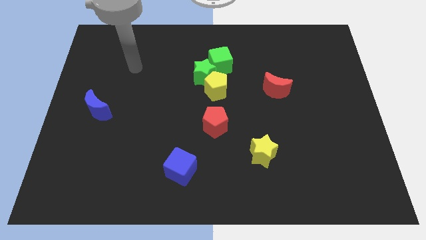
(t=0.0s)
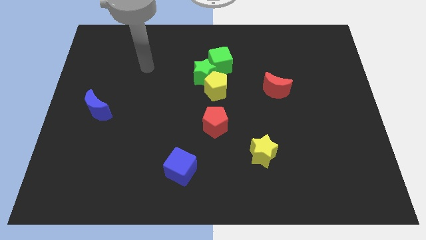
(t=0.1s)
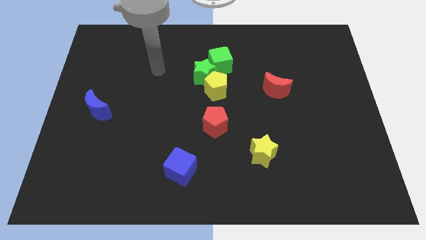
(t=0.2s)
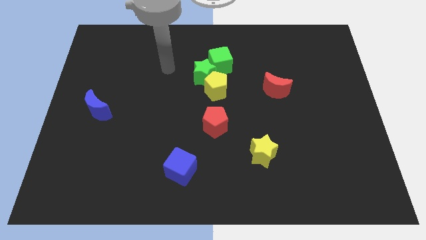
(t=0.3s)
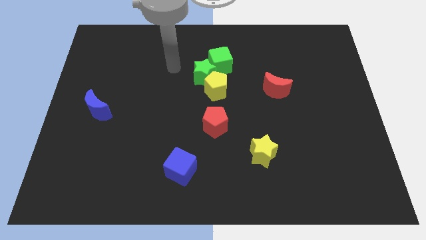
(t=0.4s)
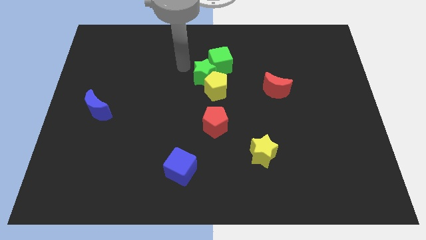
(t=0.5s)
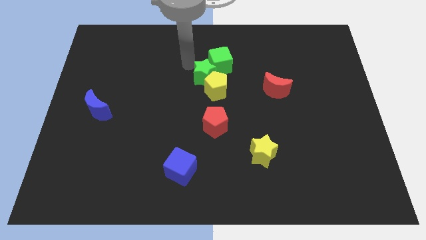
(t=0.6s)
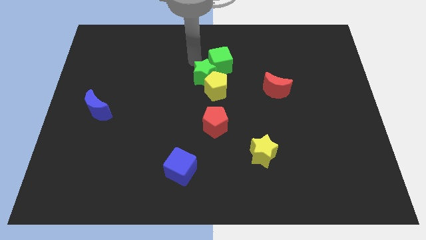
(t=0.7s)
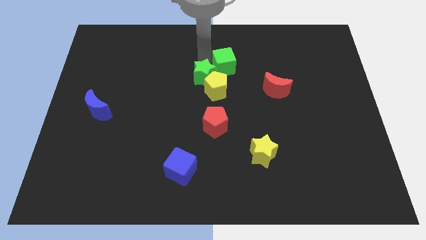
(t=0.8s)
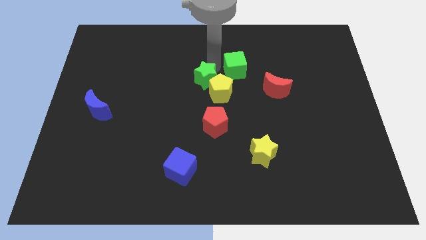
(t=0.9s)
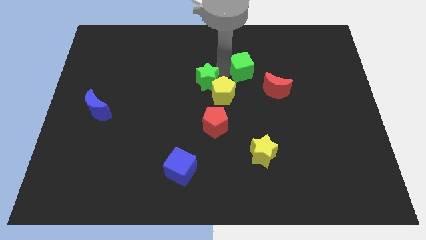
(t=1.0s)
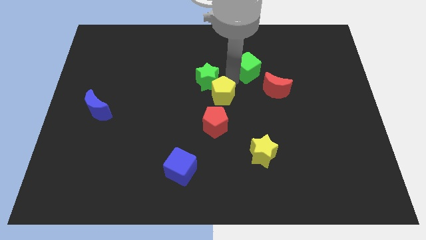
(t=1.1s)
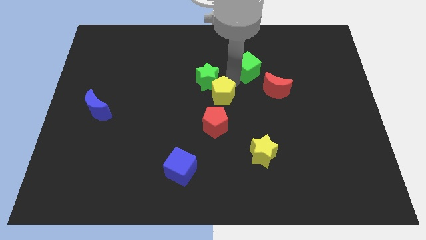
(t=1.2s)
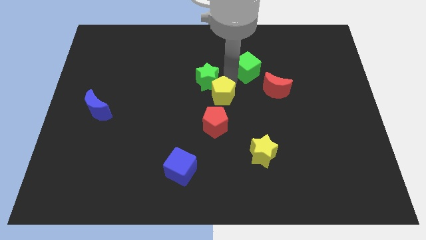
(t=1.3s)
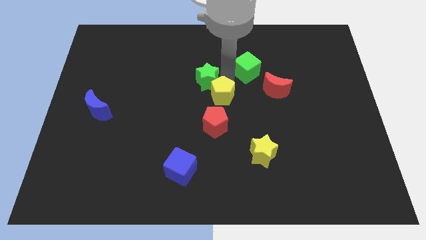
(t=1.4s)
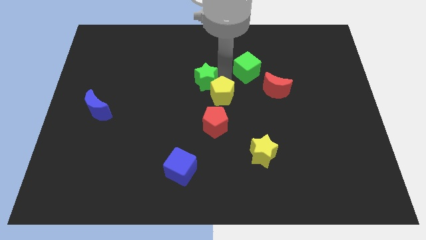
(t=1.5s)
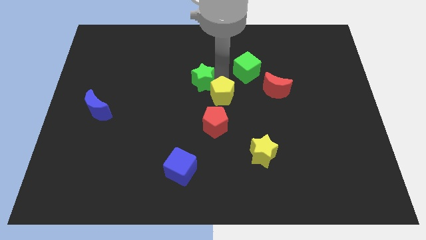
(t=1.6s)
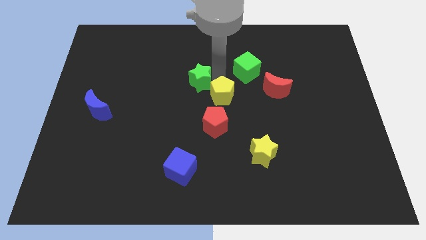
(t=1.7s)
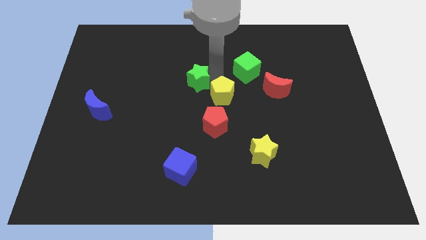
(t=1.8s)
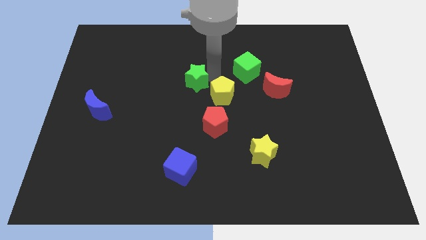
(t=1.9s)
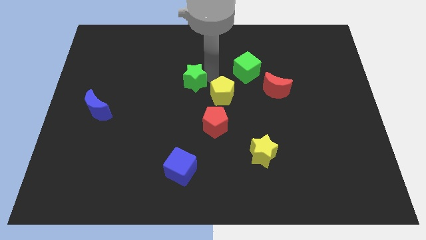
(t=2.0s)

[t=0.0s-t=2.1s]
pull the green star apart from the yellow pentagon and green cube

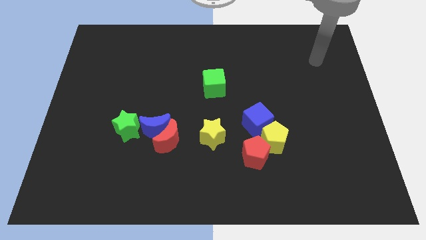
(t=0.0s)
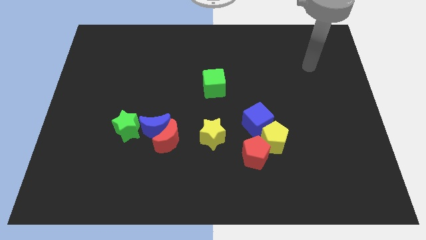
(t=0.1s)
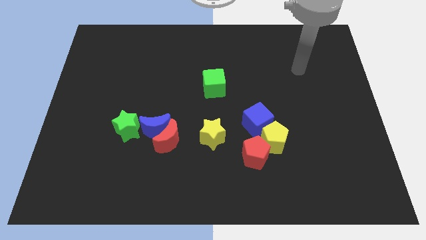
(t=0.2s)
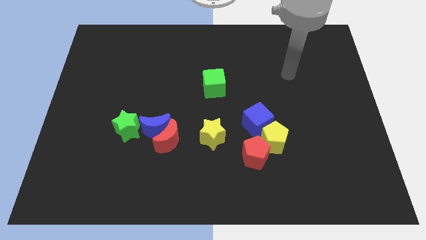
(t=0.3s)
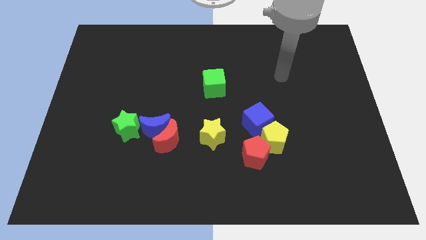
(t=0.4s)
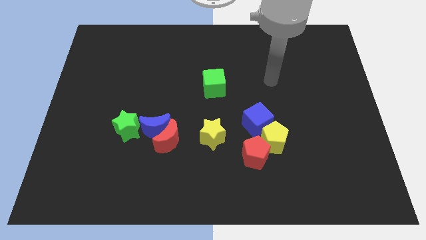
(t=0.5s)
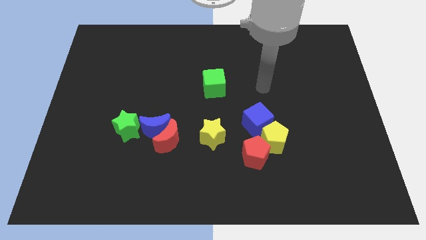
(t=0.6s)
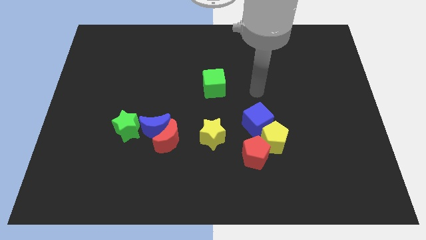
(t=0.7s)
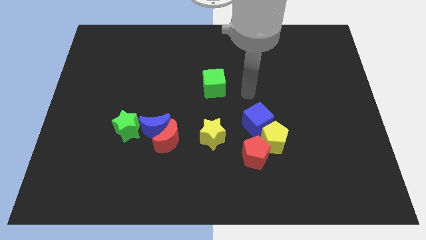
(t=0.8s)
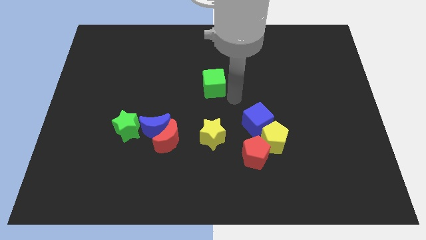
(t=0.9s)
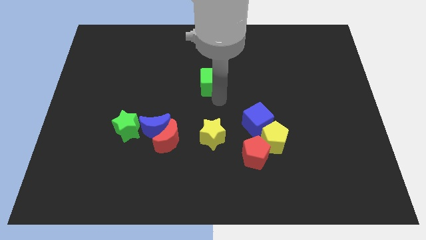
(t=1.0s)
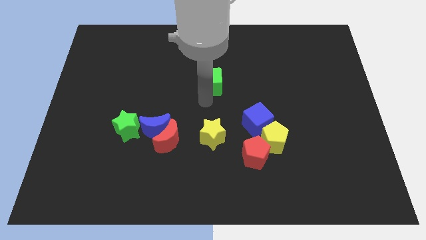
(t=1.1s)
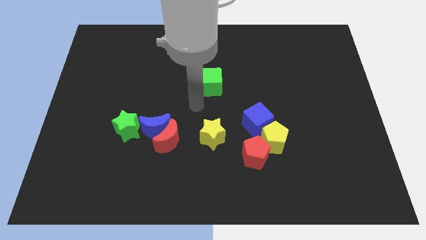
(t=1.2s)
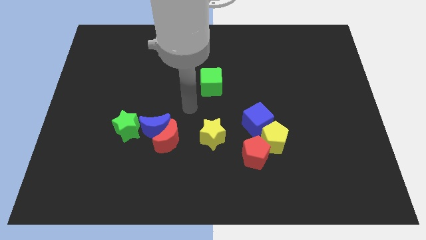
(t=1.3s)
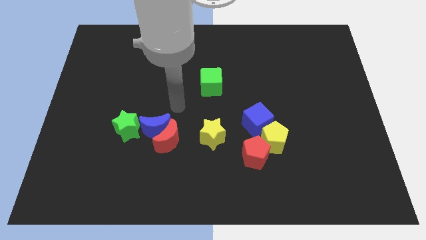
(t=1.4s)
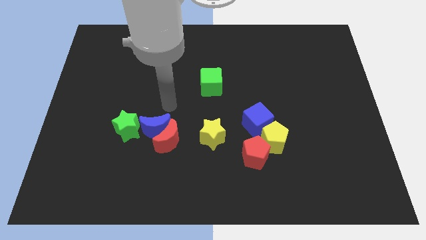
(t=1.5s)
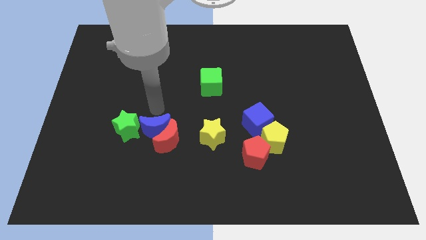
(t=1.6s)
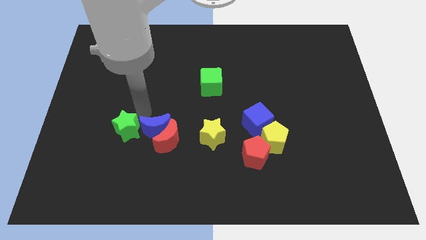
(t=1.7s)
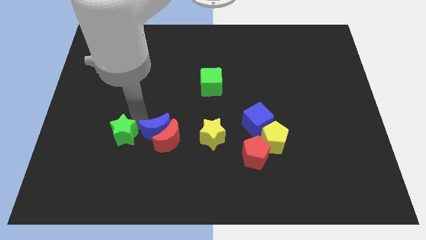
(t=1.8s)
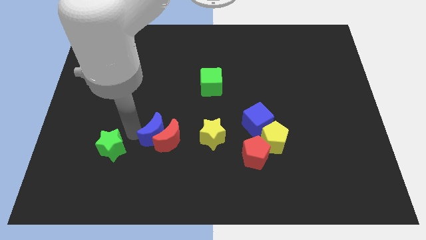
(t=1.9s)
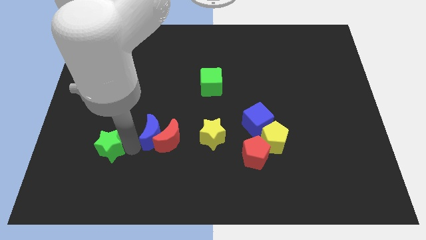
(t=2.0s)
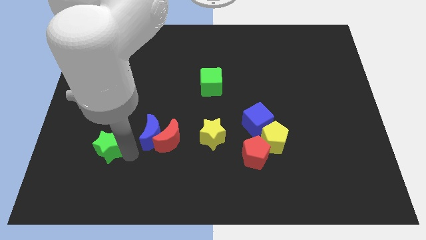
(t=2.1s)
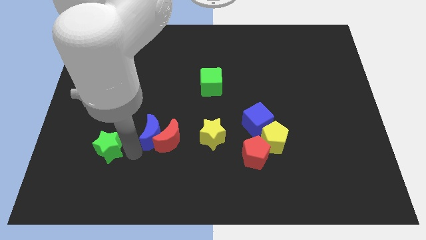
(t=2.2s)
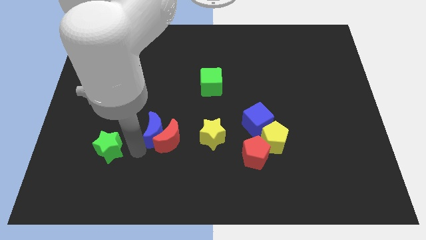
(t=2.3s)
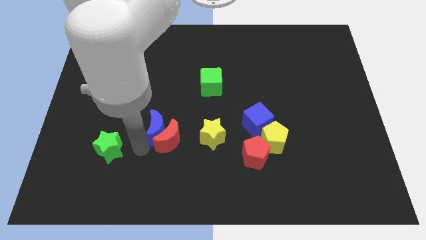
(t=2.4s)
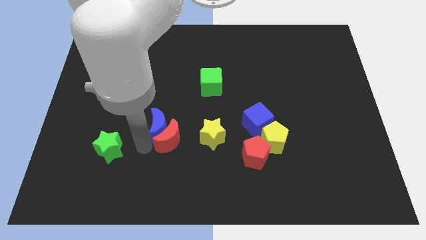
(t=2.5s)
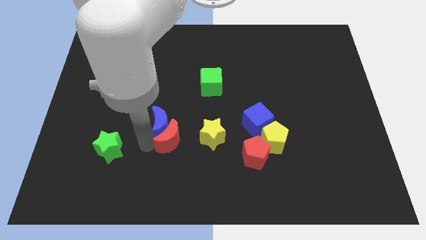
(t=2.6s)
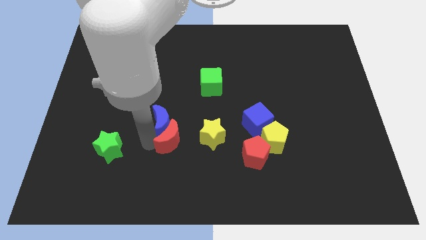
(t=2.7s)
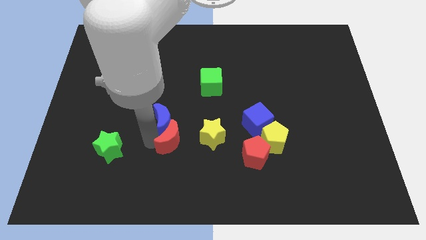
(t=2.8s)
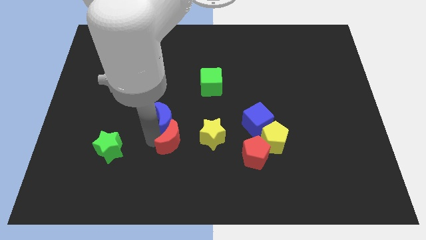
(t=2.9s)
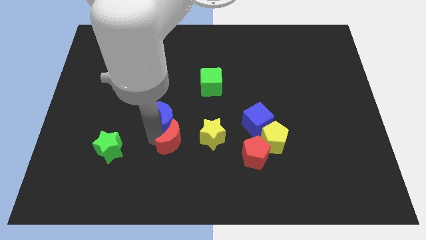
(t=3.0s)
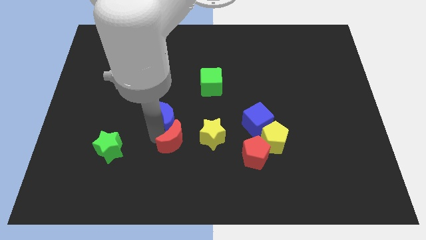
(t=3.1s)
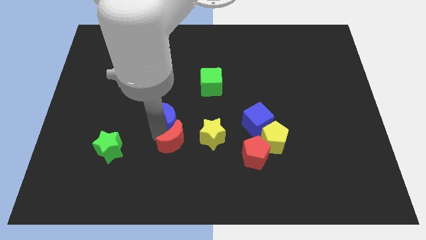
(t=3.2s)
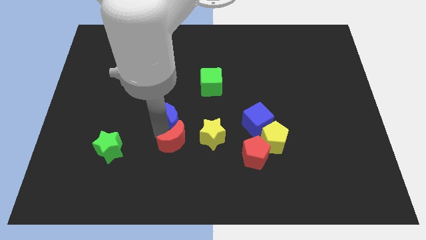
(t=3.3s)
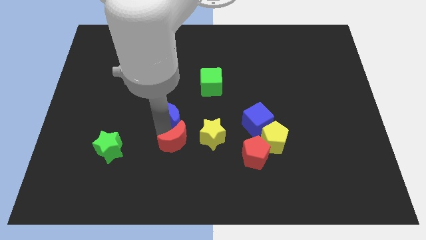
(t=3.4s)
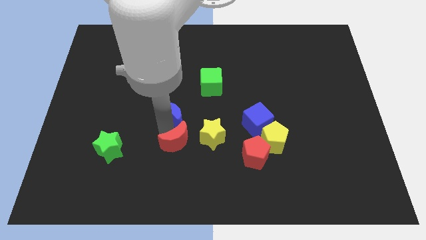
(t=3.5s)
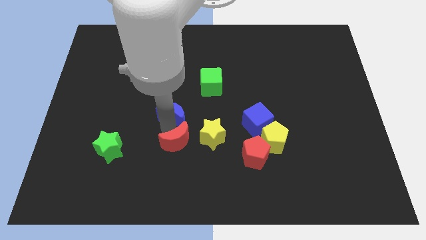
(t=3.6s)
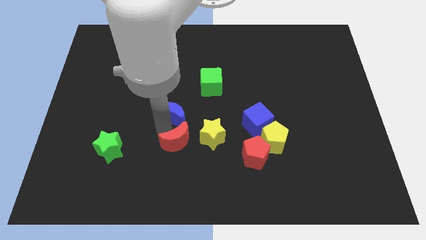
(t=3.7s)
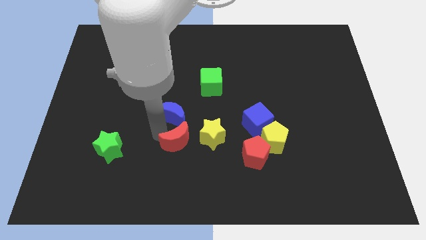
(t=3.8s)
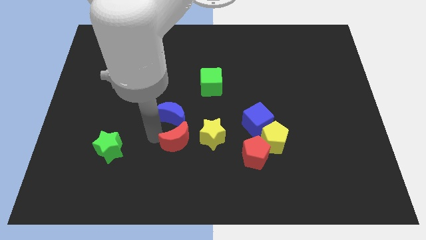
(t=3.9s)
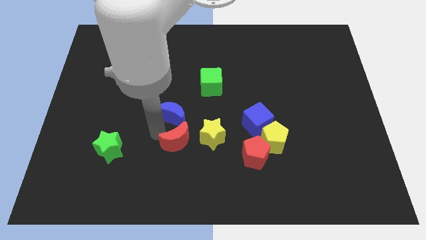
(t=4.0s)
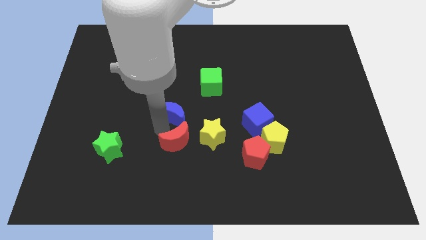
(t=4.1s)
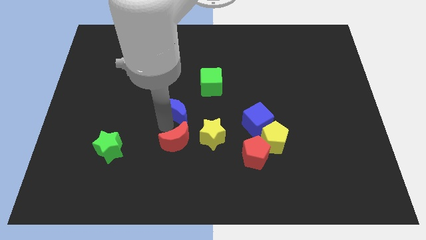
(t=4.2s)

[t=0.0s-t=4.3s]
pull the blue moon apart from the red moon and green star

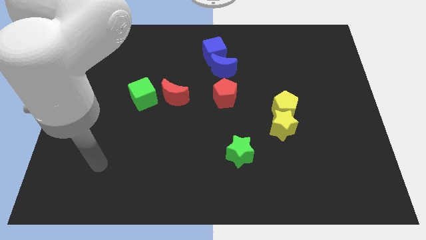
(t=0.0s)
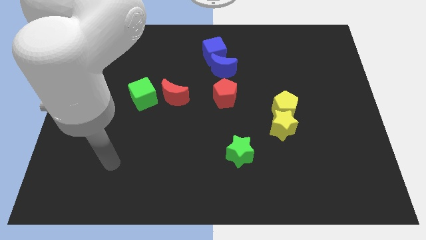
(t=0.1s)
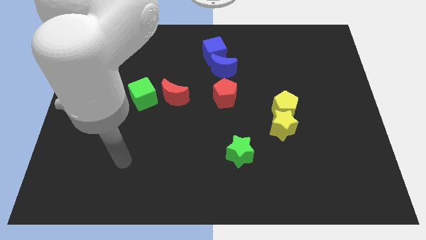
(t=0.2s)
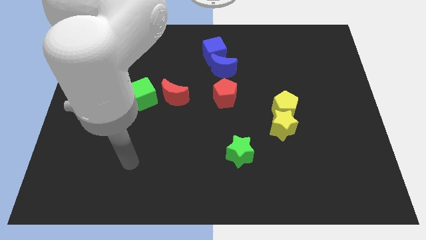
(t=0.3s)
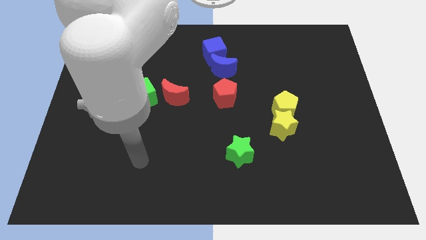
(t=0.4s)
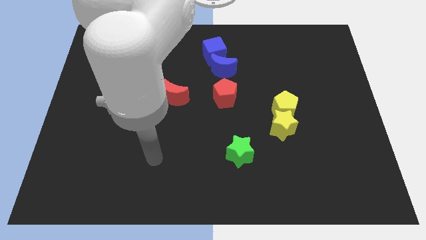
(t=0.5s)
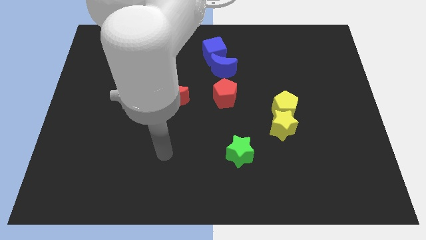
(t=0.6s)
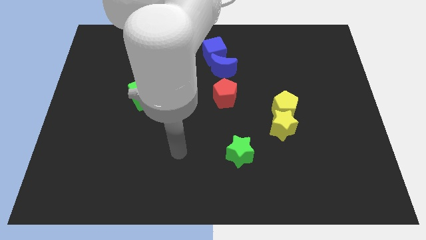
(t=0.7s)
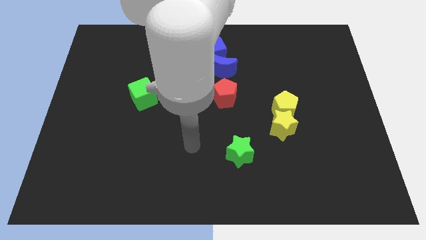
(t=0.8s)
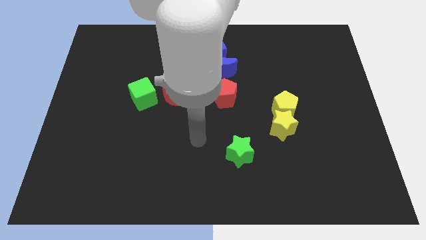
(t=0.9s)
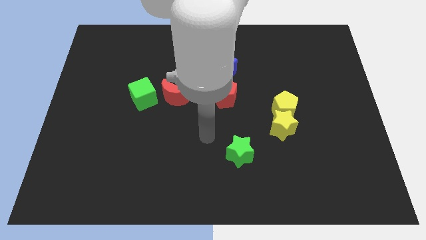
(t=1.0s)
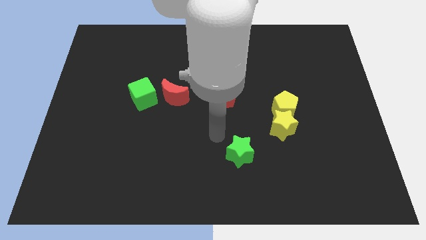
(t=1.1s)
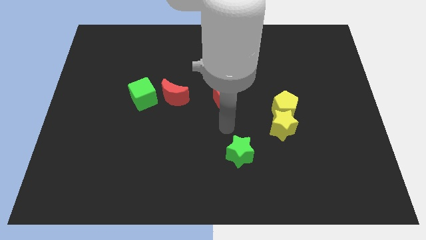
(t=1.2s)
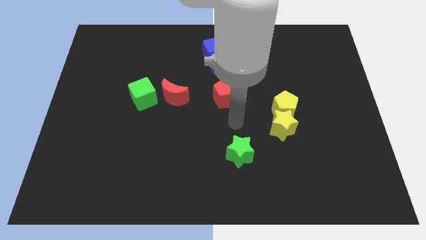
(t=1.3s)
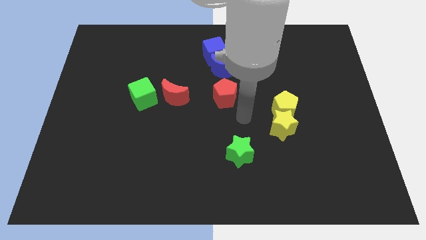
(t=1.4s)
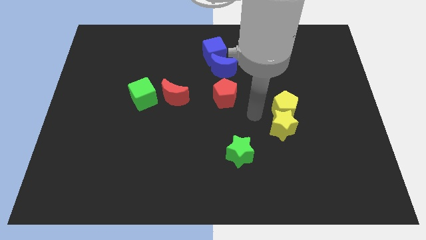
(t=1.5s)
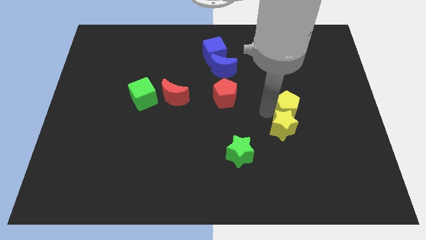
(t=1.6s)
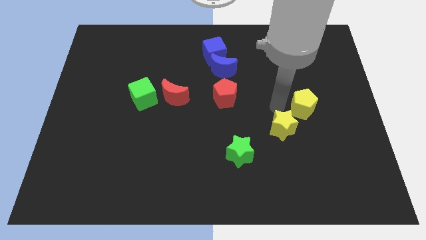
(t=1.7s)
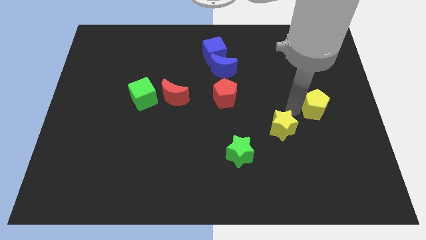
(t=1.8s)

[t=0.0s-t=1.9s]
pull the yellow star apart from the yellow pentagon

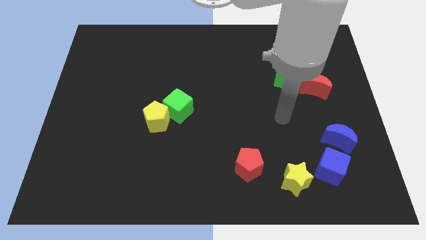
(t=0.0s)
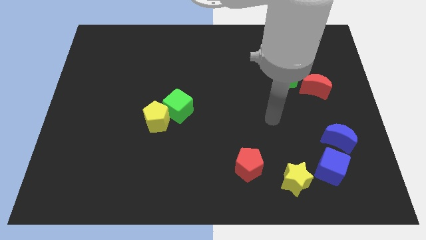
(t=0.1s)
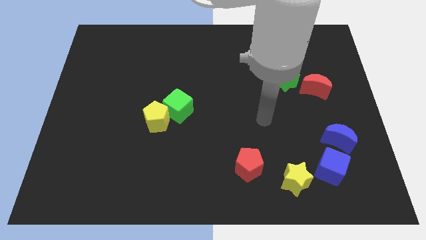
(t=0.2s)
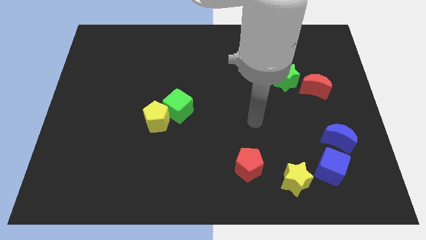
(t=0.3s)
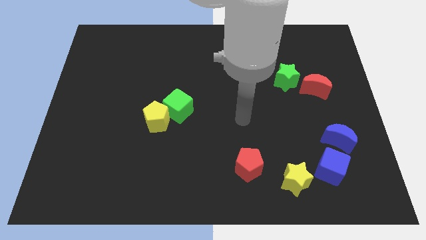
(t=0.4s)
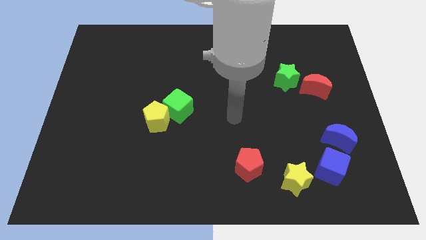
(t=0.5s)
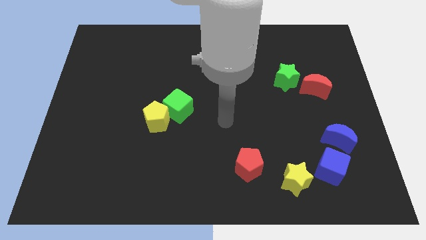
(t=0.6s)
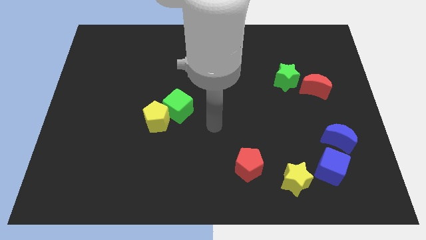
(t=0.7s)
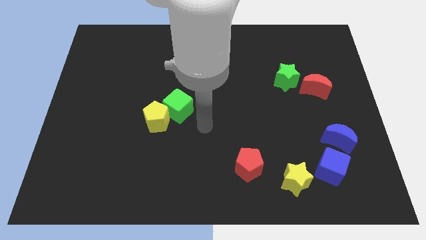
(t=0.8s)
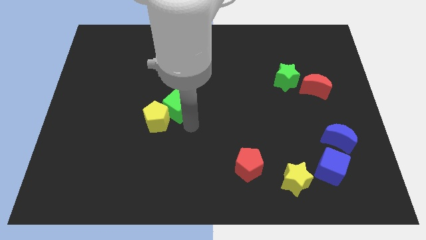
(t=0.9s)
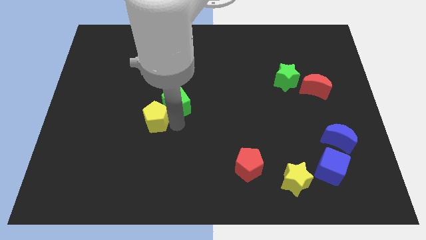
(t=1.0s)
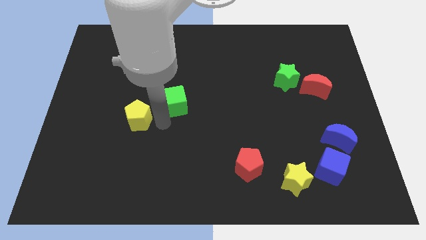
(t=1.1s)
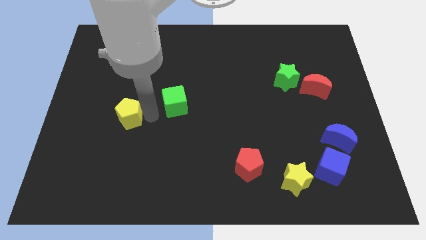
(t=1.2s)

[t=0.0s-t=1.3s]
move the green cube away from the yellow pentagon
